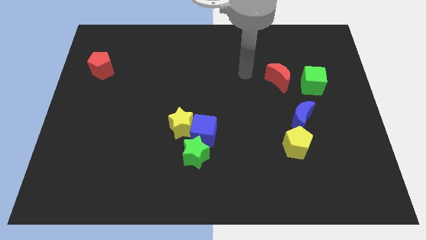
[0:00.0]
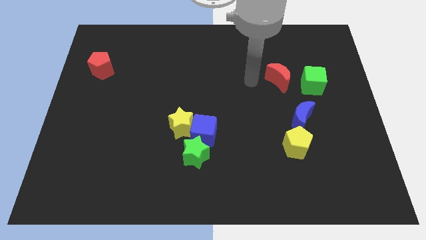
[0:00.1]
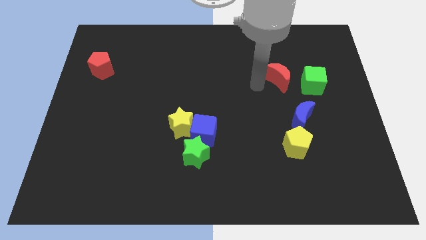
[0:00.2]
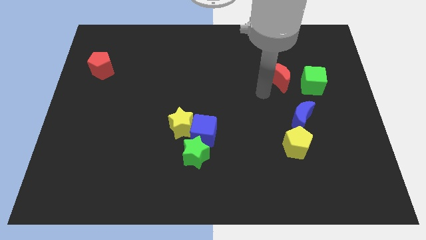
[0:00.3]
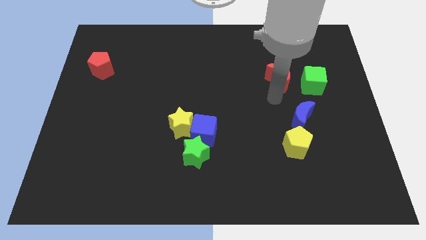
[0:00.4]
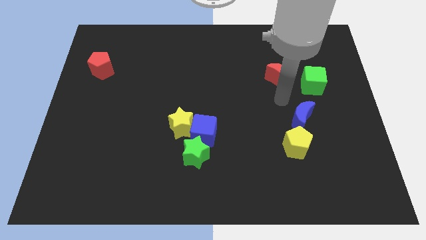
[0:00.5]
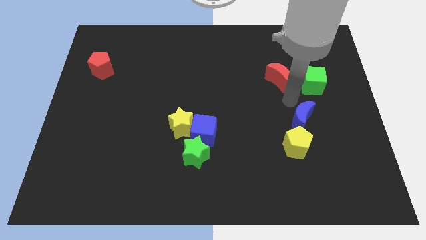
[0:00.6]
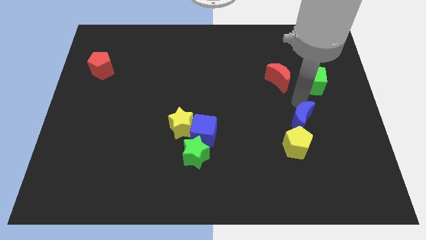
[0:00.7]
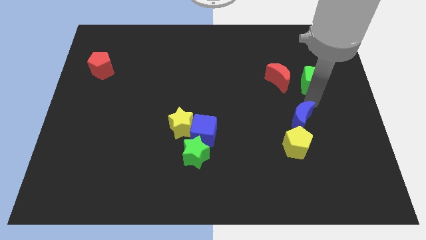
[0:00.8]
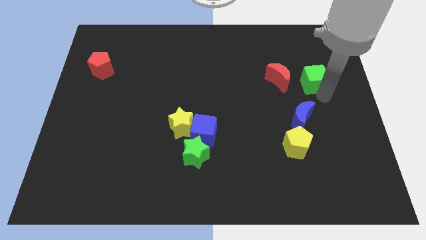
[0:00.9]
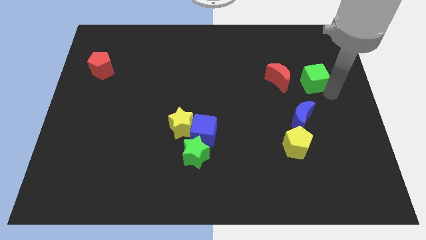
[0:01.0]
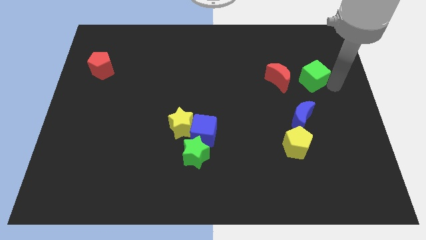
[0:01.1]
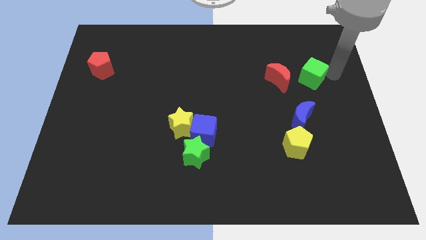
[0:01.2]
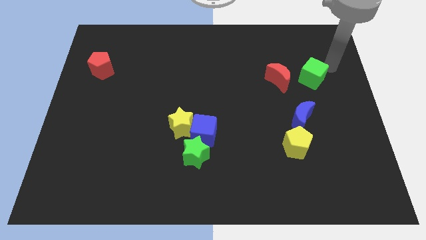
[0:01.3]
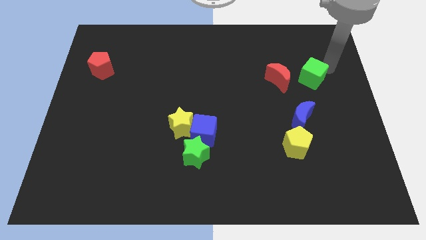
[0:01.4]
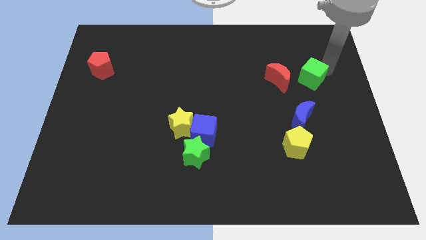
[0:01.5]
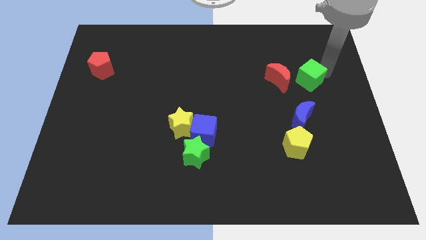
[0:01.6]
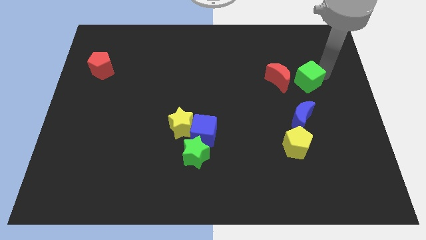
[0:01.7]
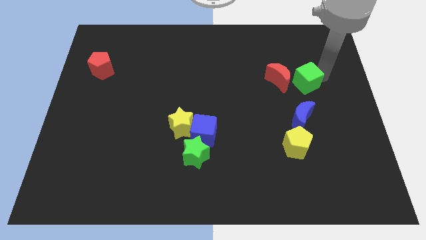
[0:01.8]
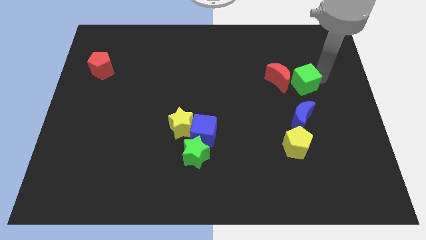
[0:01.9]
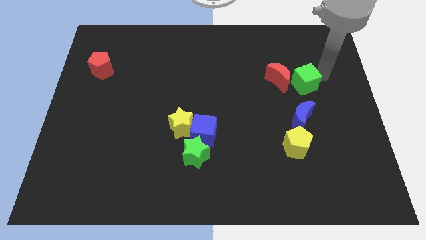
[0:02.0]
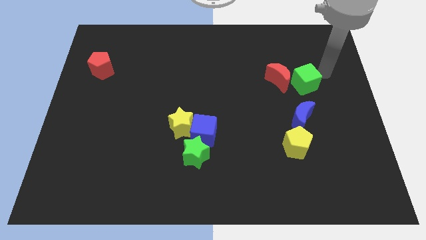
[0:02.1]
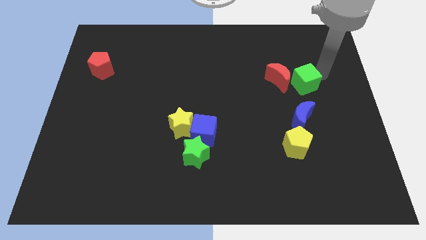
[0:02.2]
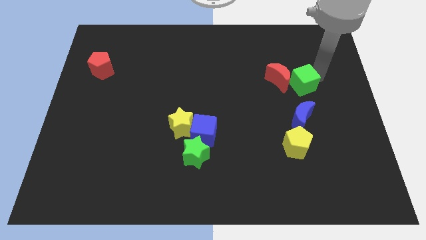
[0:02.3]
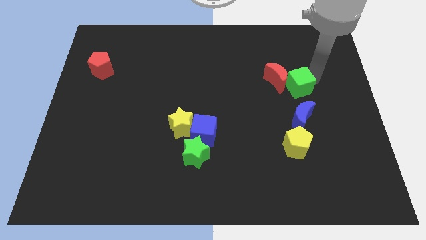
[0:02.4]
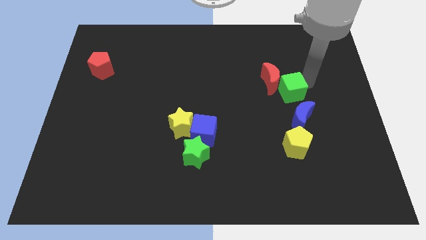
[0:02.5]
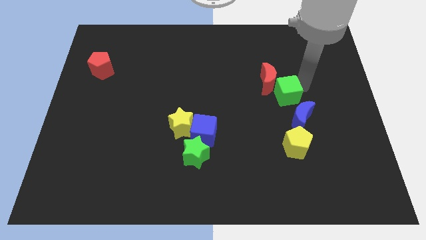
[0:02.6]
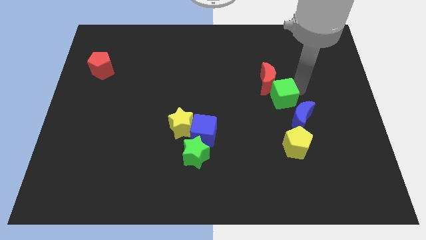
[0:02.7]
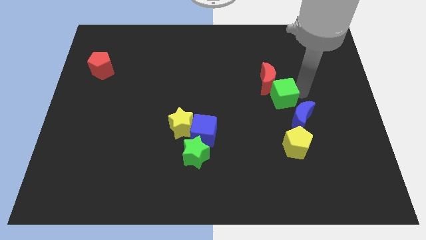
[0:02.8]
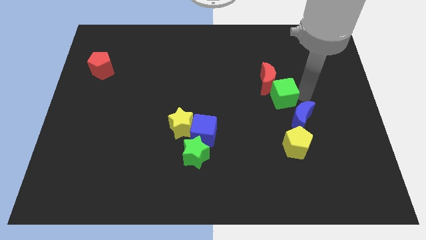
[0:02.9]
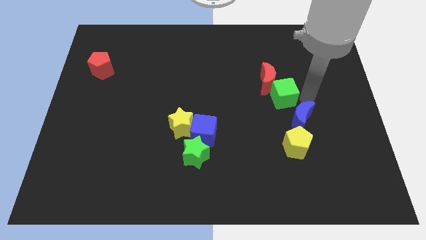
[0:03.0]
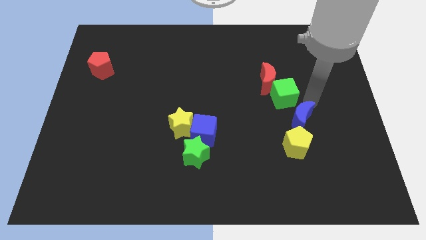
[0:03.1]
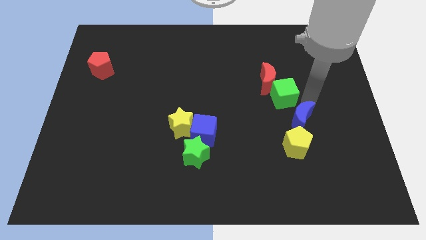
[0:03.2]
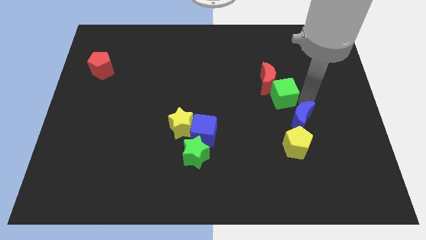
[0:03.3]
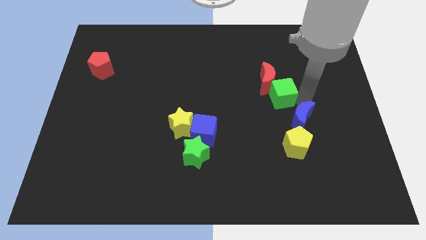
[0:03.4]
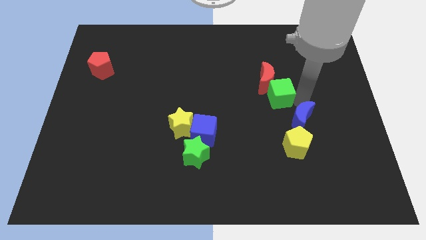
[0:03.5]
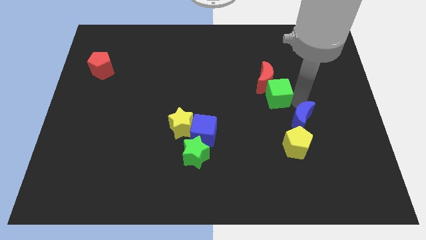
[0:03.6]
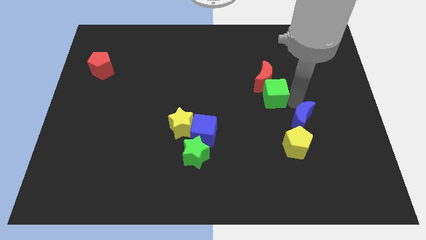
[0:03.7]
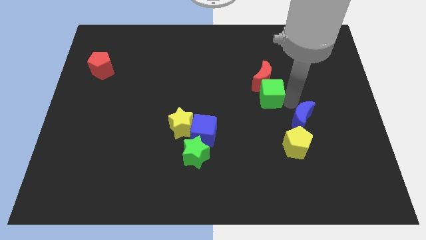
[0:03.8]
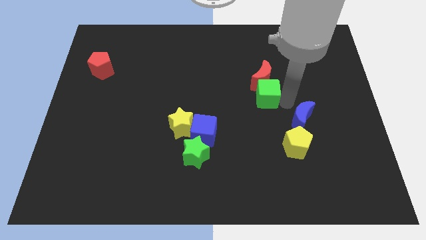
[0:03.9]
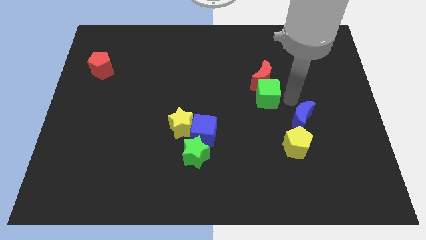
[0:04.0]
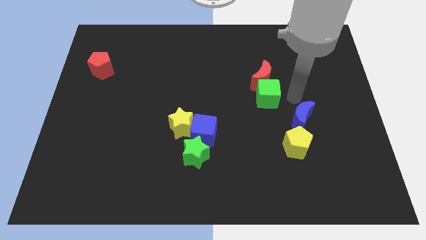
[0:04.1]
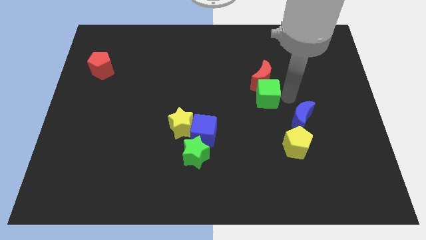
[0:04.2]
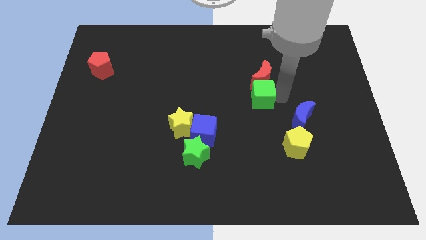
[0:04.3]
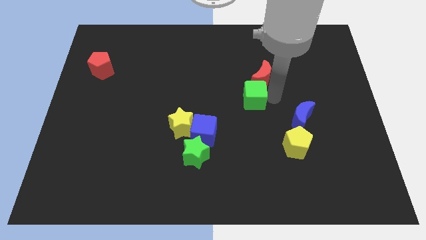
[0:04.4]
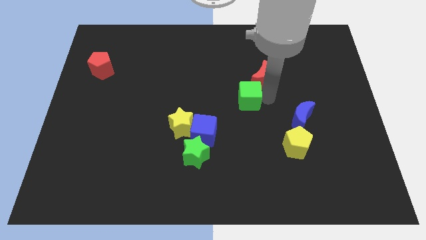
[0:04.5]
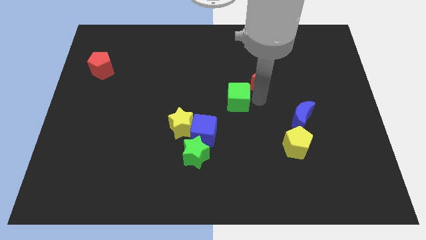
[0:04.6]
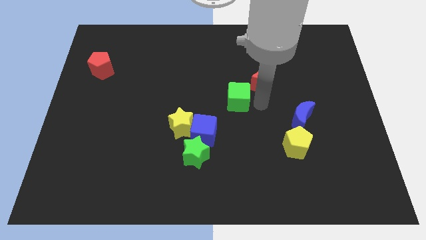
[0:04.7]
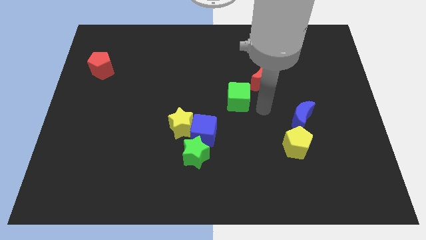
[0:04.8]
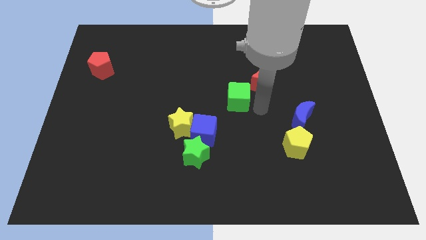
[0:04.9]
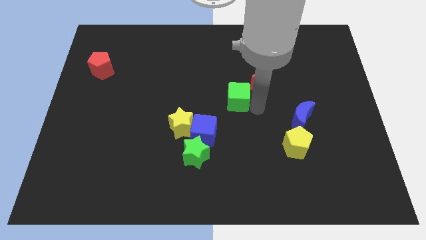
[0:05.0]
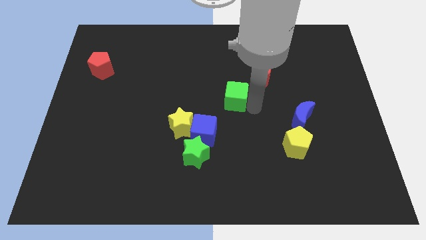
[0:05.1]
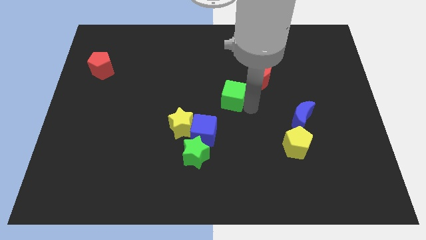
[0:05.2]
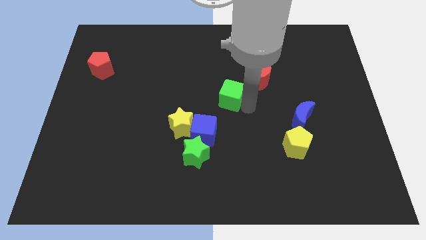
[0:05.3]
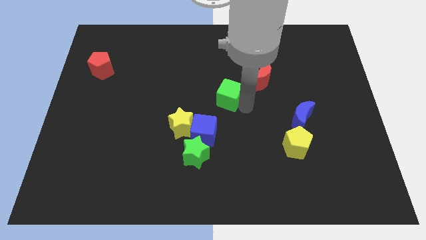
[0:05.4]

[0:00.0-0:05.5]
push the green cube left

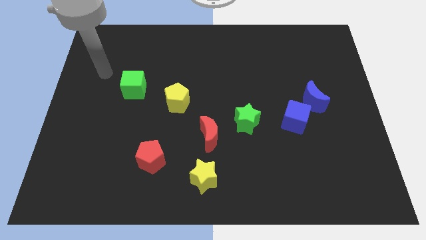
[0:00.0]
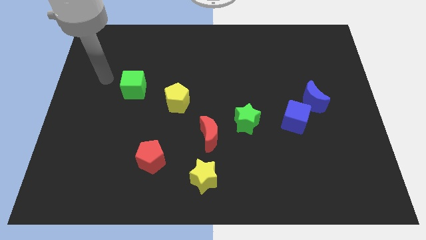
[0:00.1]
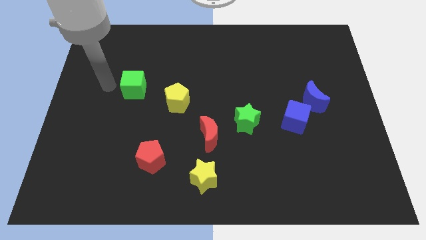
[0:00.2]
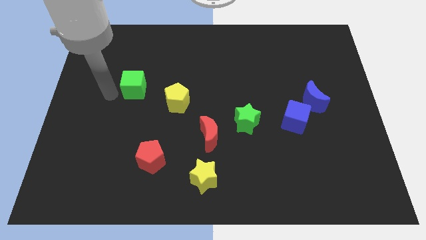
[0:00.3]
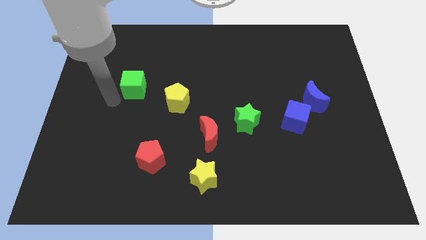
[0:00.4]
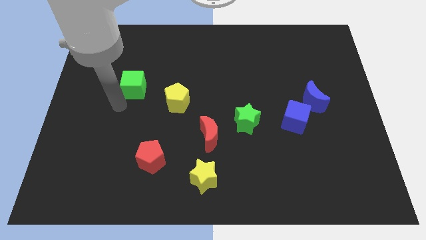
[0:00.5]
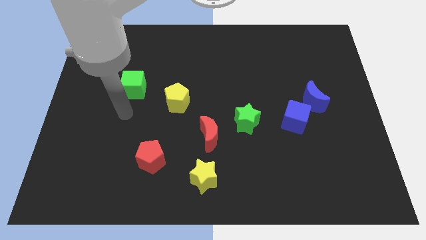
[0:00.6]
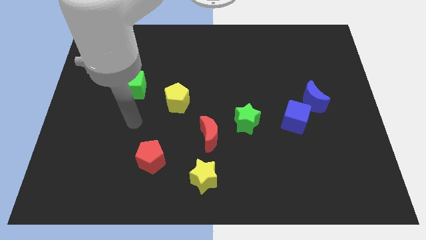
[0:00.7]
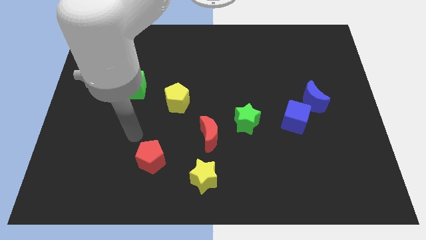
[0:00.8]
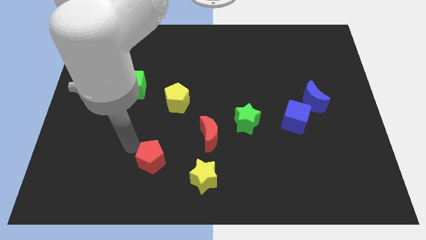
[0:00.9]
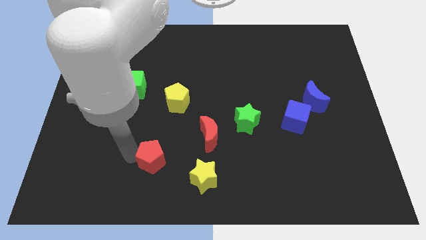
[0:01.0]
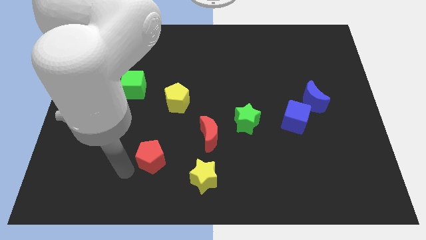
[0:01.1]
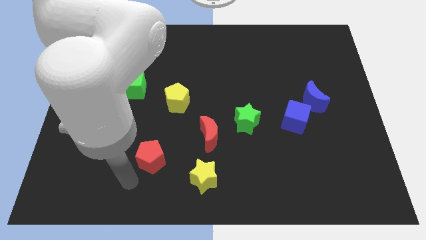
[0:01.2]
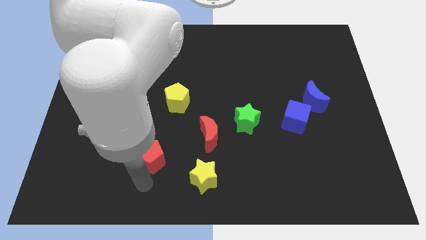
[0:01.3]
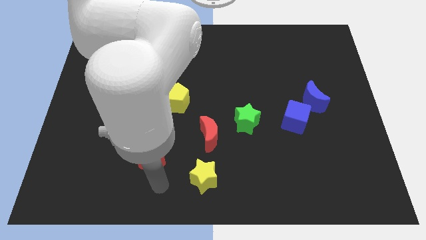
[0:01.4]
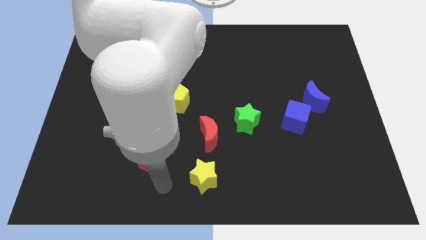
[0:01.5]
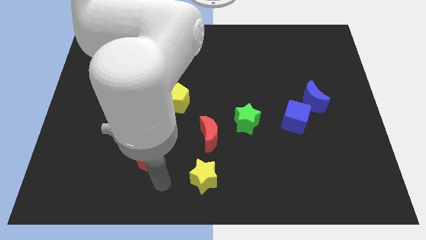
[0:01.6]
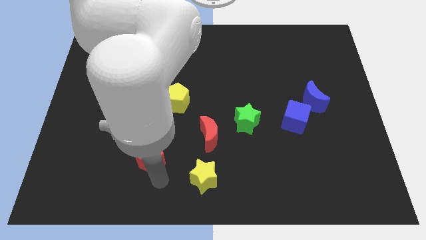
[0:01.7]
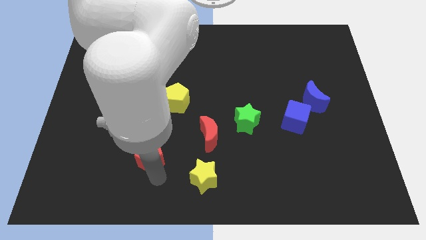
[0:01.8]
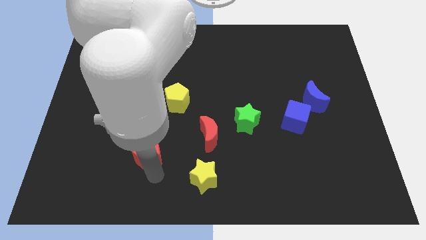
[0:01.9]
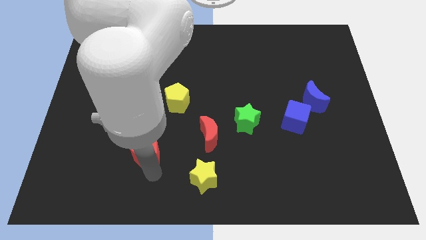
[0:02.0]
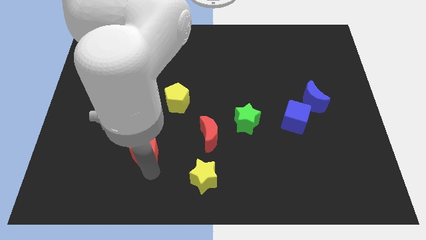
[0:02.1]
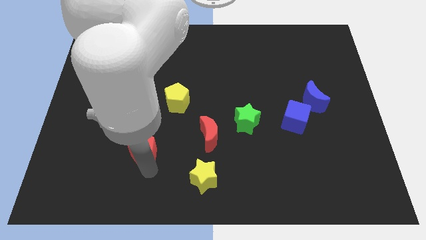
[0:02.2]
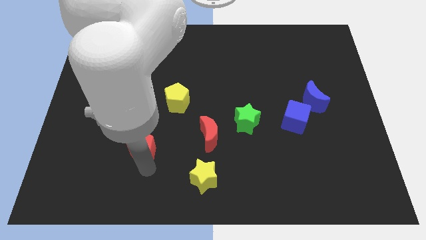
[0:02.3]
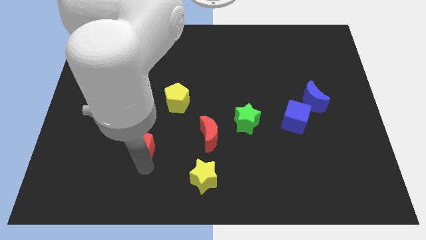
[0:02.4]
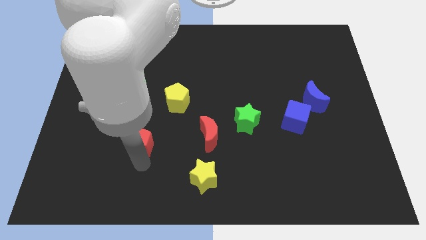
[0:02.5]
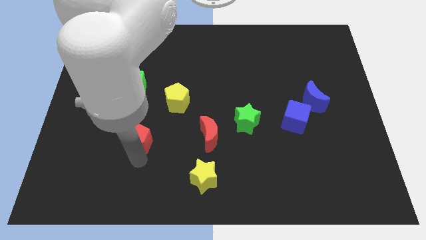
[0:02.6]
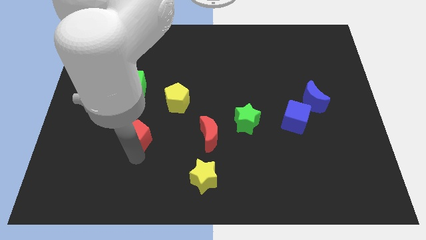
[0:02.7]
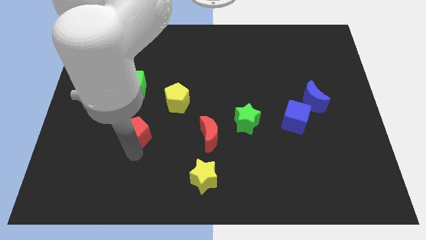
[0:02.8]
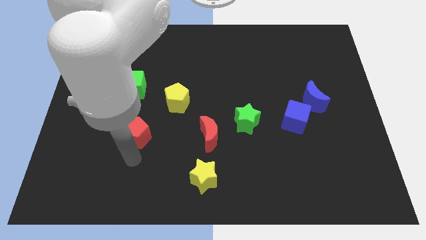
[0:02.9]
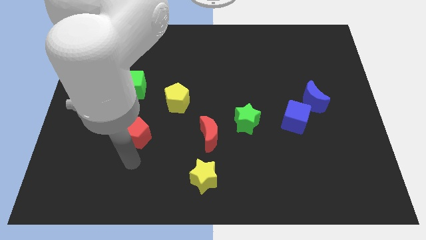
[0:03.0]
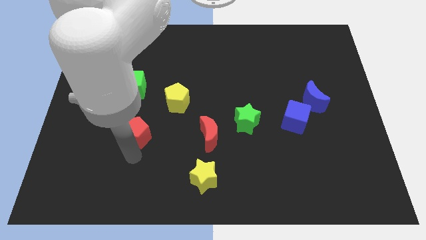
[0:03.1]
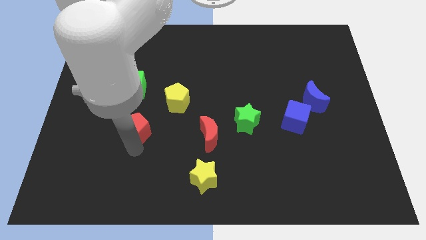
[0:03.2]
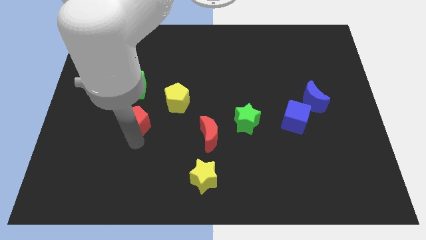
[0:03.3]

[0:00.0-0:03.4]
move the red pentagon a bit upwards
